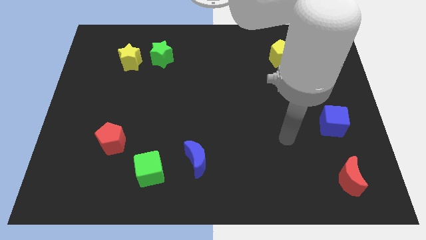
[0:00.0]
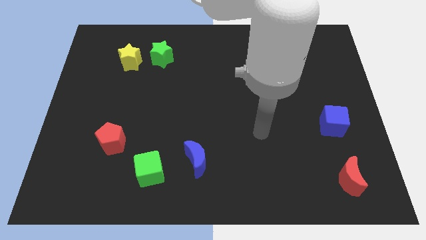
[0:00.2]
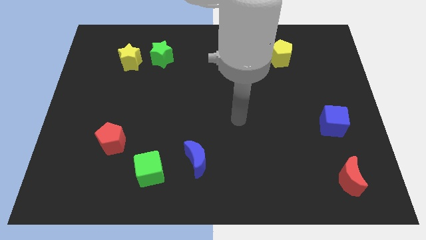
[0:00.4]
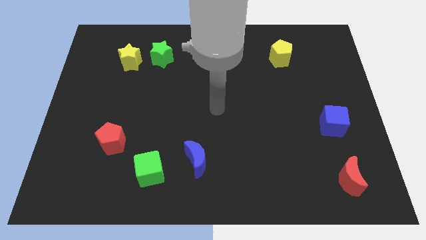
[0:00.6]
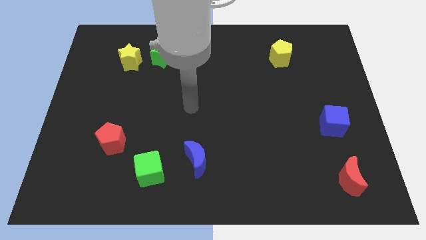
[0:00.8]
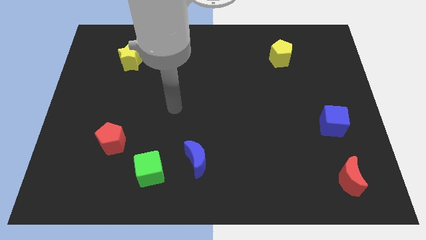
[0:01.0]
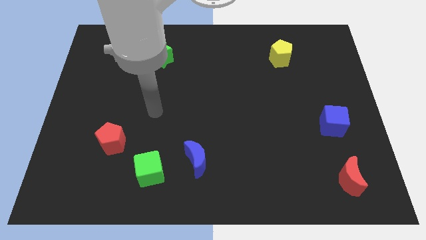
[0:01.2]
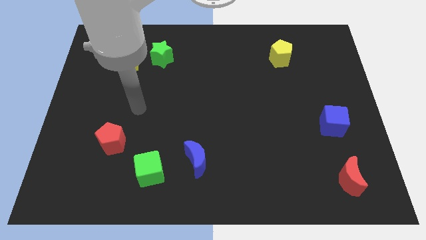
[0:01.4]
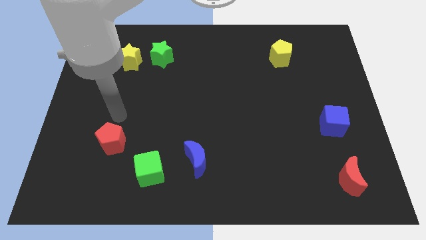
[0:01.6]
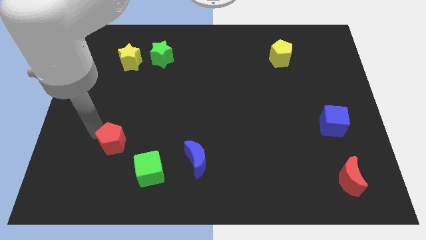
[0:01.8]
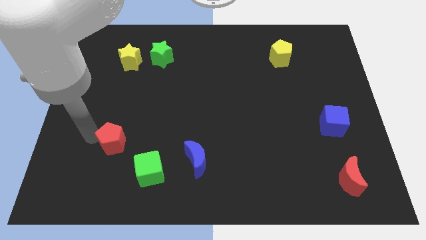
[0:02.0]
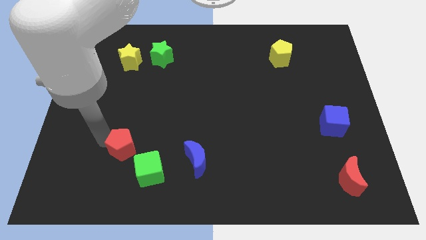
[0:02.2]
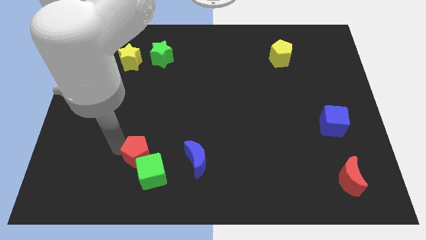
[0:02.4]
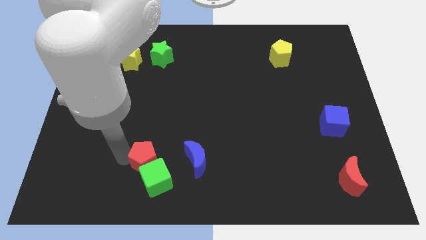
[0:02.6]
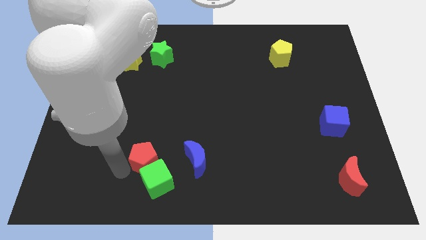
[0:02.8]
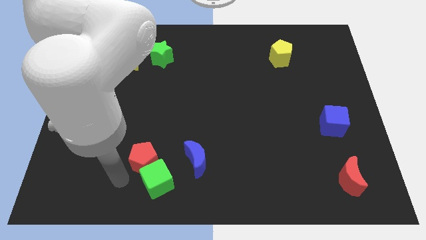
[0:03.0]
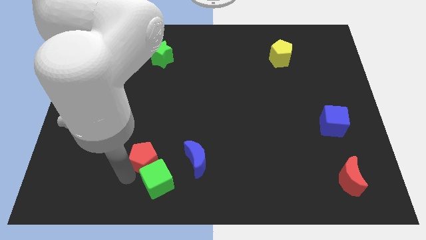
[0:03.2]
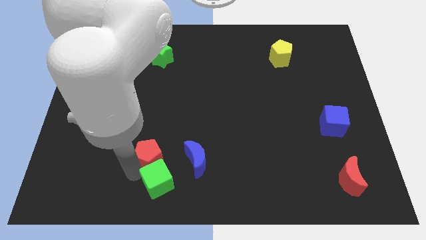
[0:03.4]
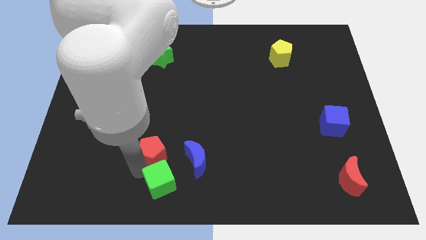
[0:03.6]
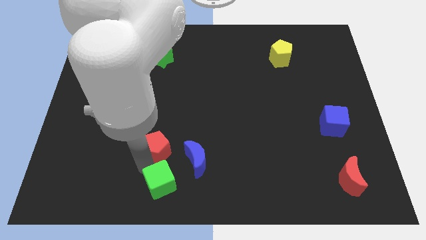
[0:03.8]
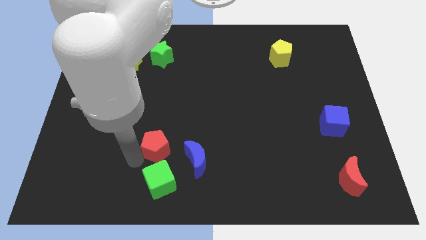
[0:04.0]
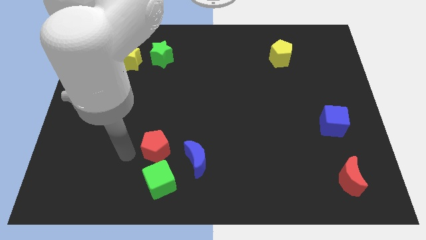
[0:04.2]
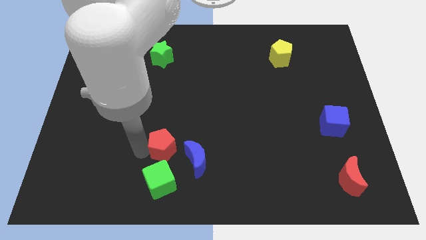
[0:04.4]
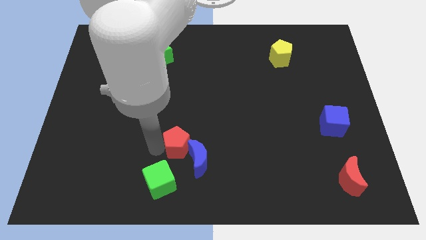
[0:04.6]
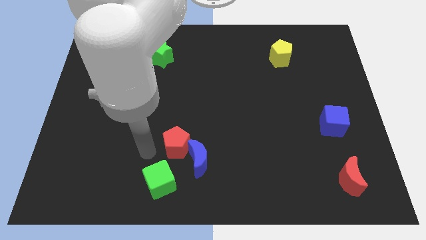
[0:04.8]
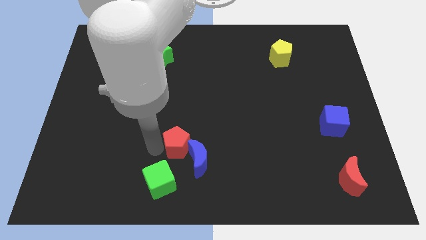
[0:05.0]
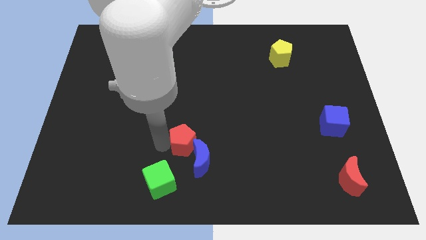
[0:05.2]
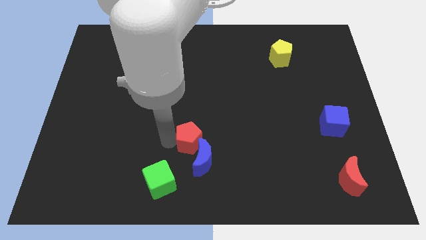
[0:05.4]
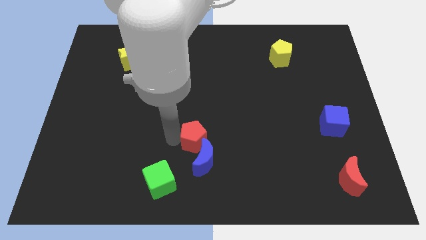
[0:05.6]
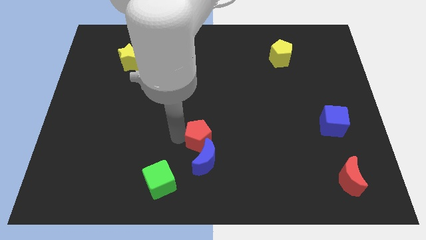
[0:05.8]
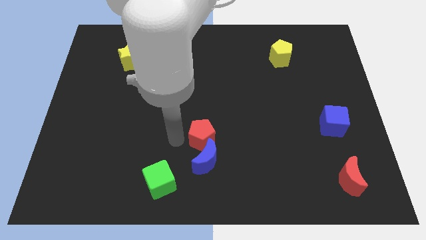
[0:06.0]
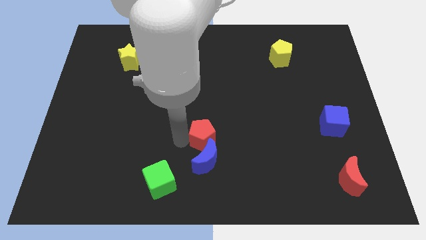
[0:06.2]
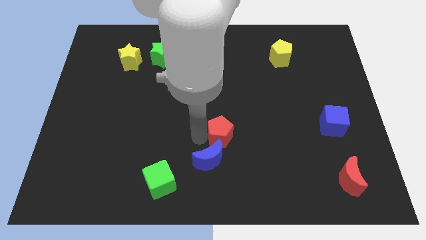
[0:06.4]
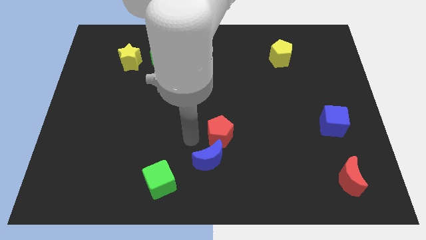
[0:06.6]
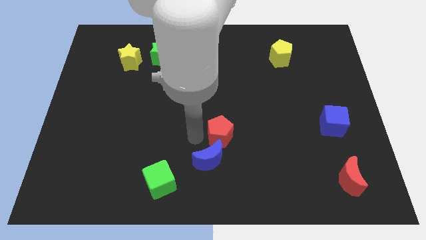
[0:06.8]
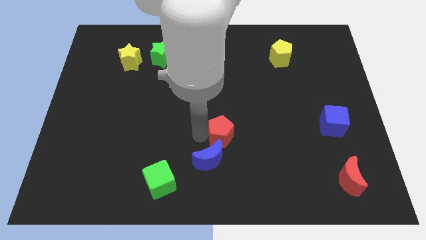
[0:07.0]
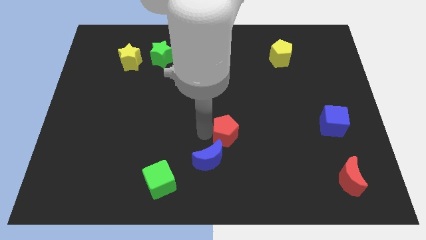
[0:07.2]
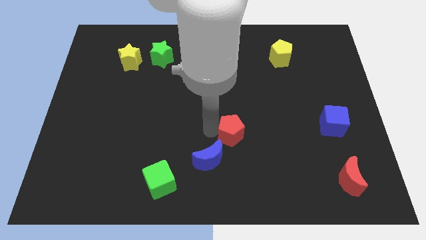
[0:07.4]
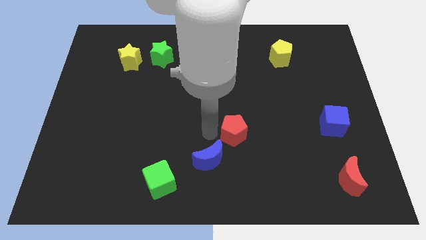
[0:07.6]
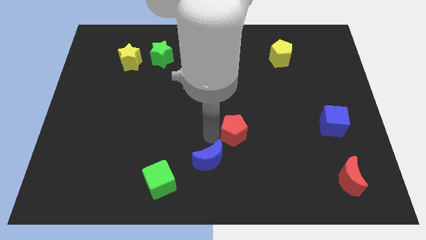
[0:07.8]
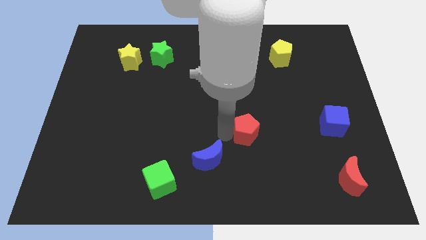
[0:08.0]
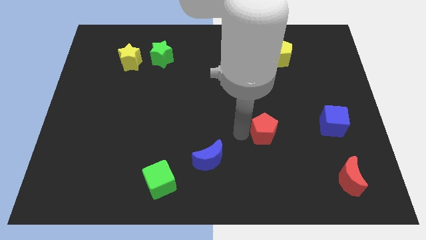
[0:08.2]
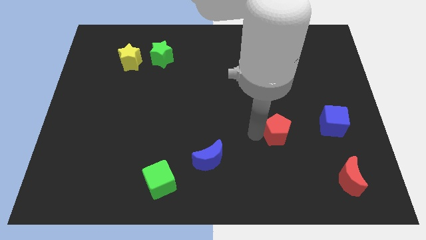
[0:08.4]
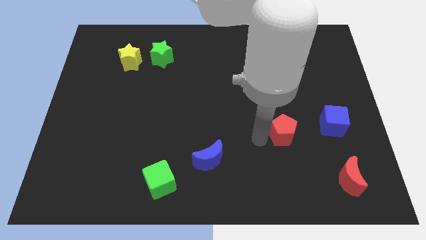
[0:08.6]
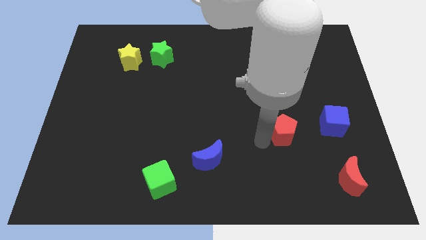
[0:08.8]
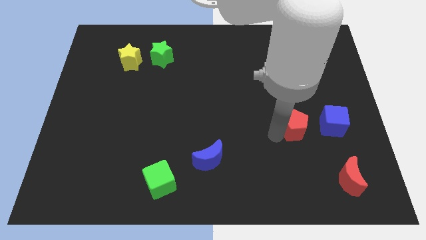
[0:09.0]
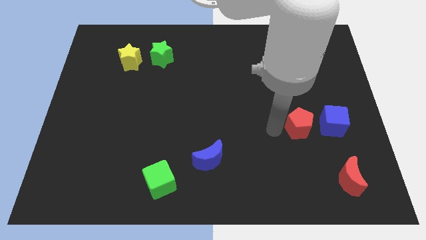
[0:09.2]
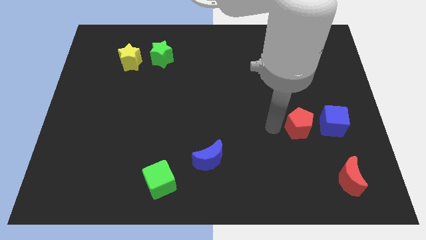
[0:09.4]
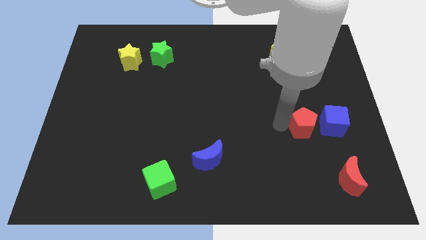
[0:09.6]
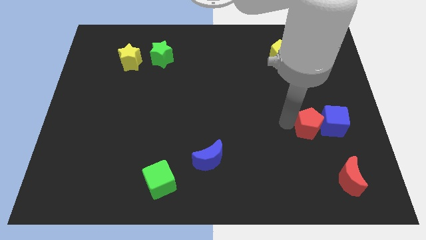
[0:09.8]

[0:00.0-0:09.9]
slide the red pentagon towards the blue cube

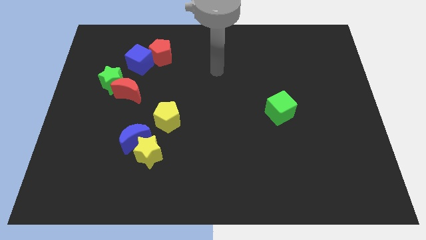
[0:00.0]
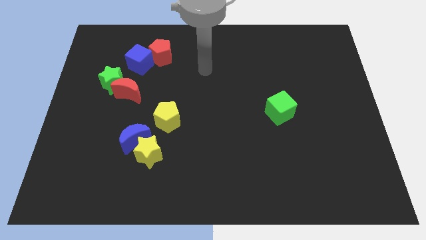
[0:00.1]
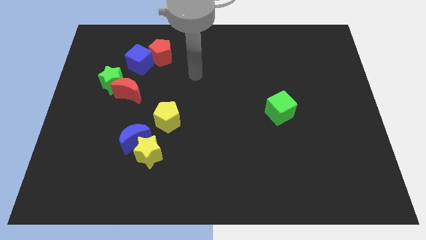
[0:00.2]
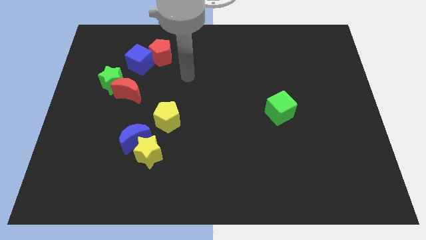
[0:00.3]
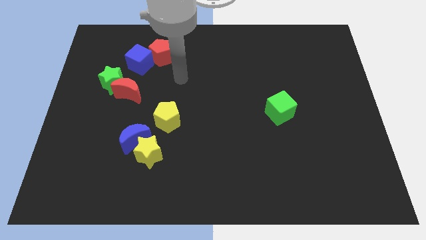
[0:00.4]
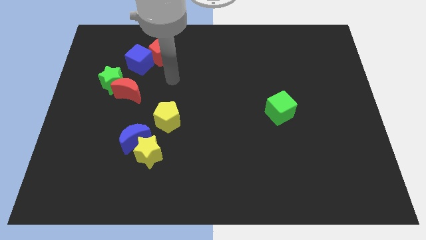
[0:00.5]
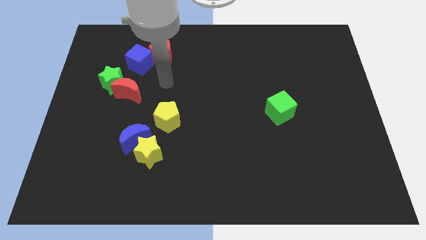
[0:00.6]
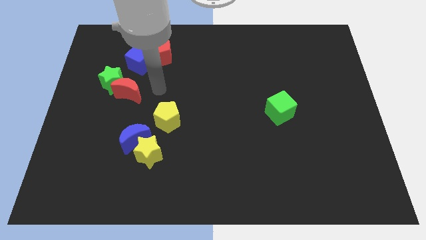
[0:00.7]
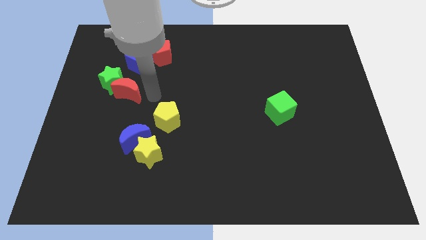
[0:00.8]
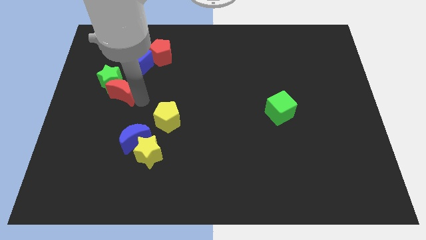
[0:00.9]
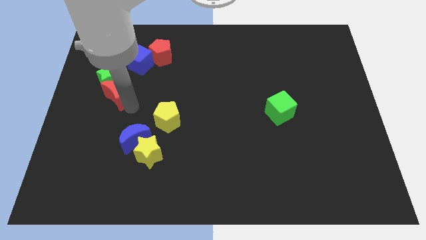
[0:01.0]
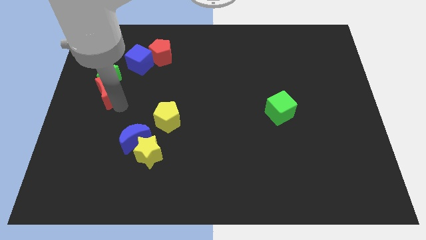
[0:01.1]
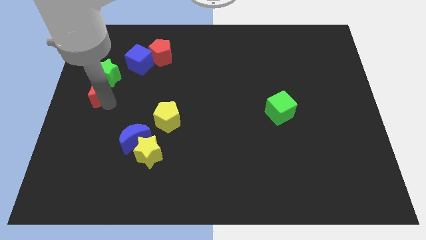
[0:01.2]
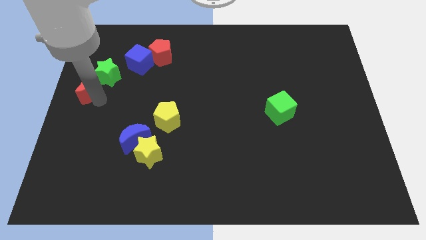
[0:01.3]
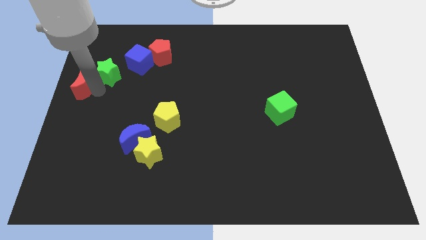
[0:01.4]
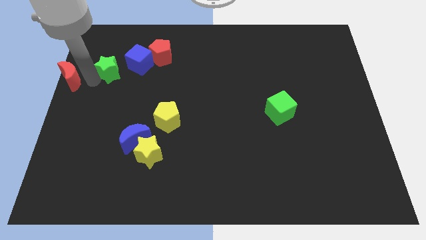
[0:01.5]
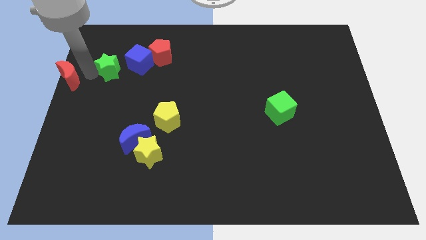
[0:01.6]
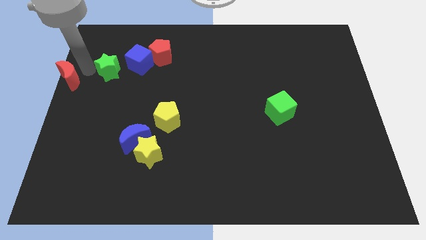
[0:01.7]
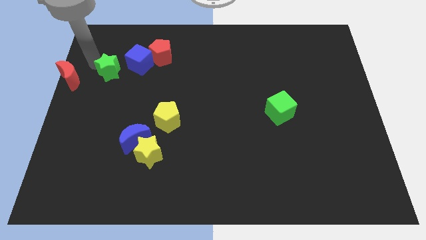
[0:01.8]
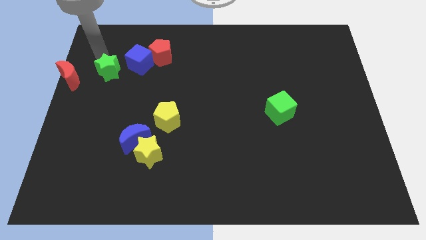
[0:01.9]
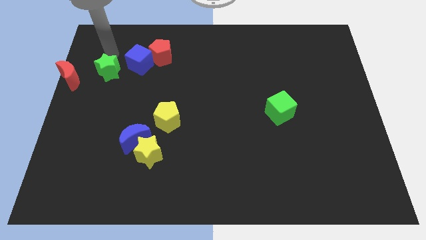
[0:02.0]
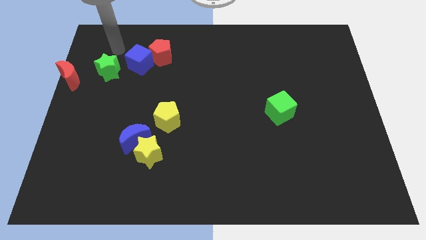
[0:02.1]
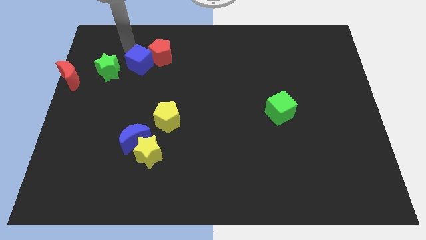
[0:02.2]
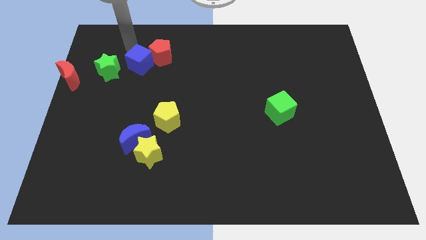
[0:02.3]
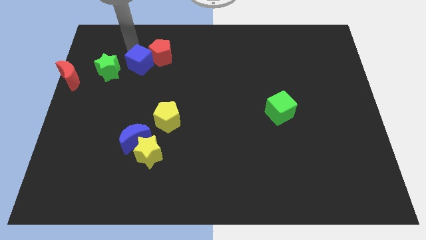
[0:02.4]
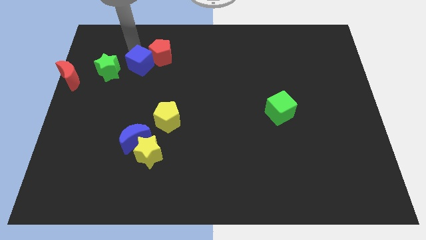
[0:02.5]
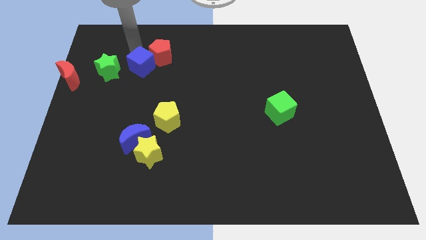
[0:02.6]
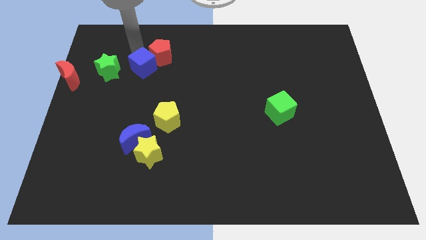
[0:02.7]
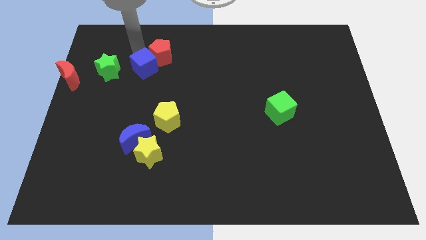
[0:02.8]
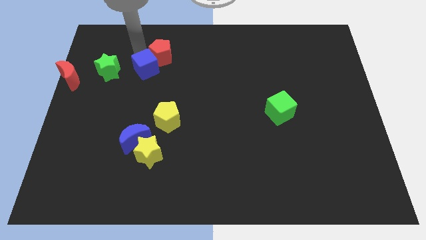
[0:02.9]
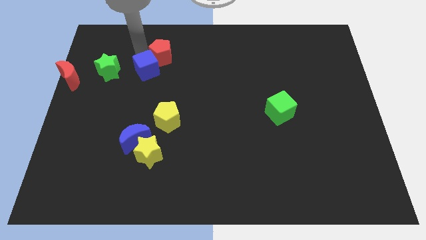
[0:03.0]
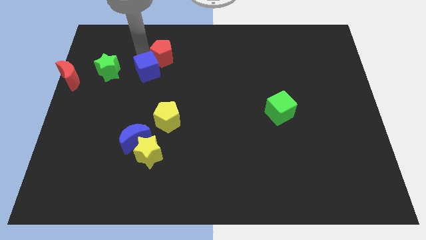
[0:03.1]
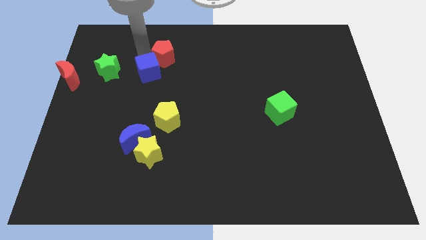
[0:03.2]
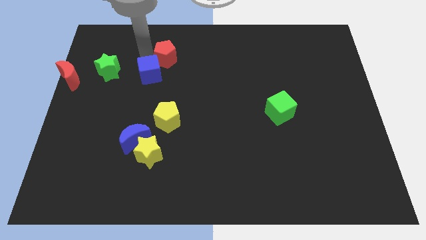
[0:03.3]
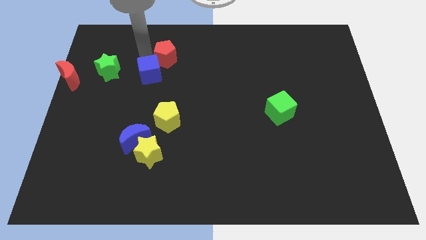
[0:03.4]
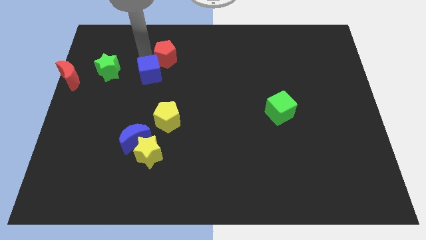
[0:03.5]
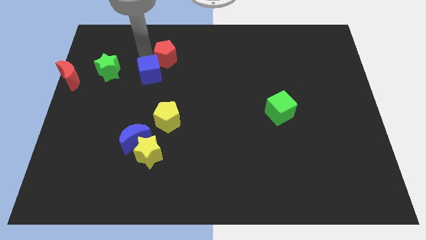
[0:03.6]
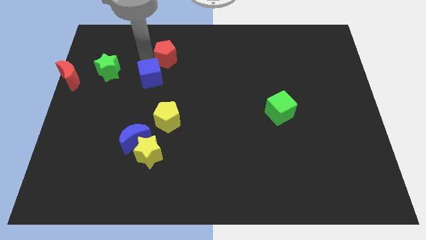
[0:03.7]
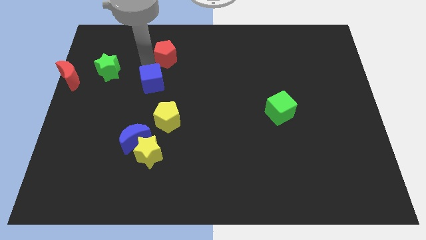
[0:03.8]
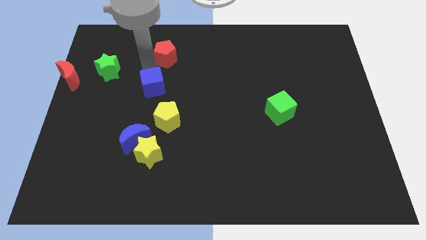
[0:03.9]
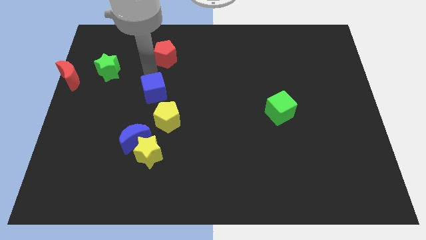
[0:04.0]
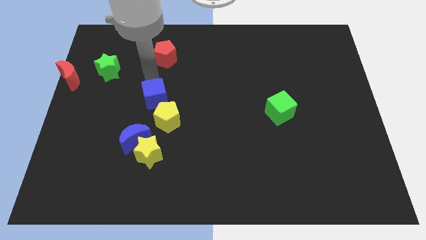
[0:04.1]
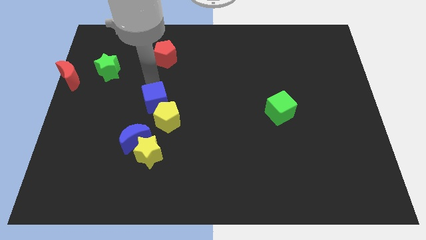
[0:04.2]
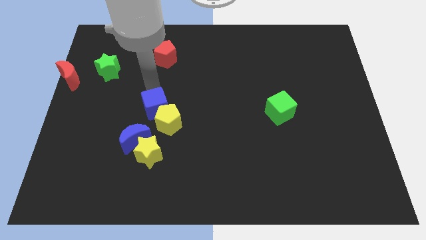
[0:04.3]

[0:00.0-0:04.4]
move the blue cube next to the yellow pentagon
